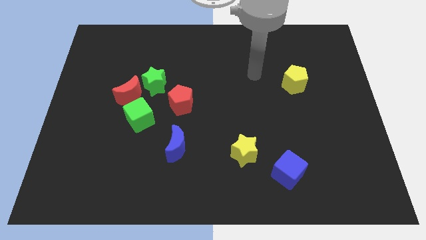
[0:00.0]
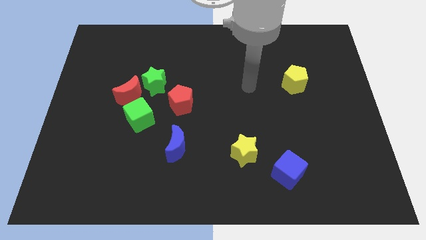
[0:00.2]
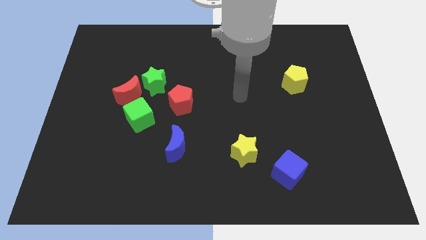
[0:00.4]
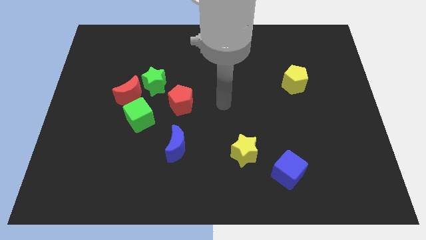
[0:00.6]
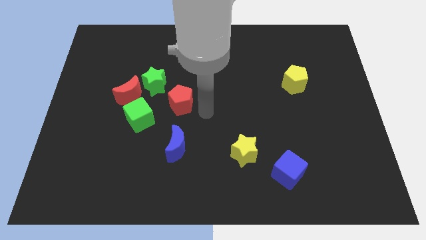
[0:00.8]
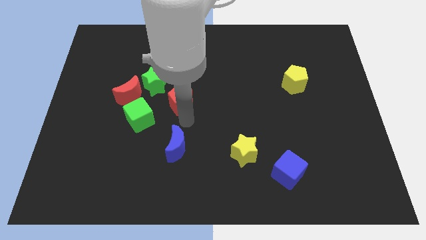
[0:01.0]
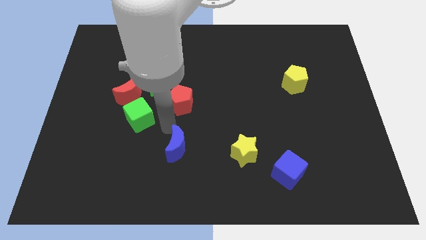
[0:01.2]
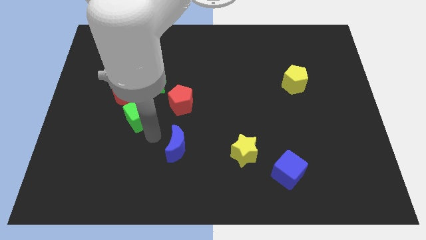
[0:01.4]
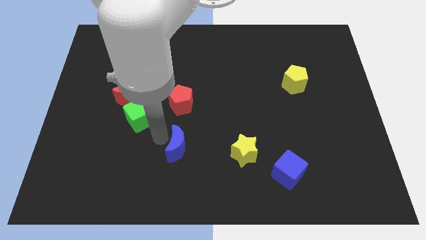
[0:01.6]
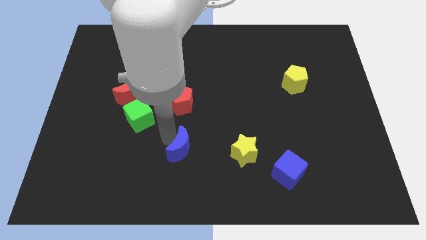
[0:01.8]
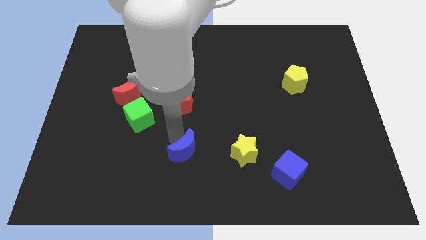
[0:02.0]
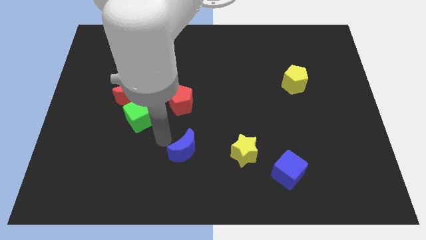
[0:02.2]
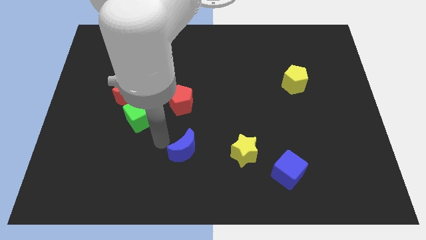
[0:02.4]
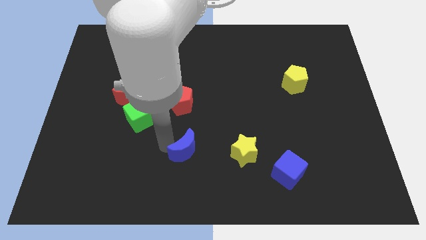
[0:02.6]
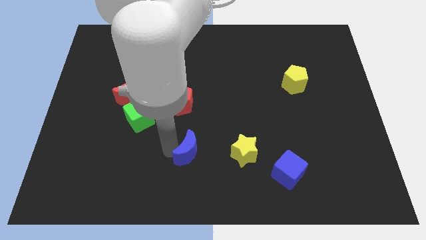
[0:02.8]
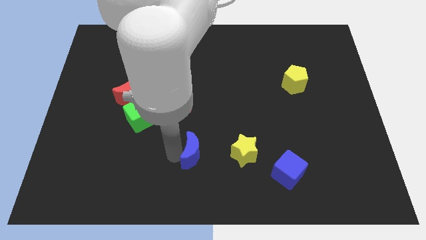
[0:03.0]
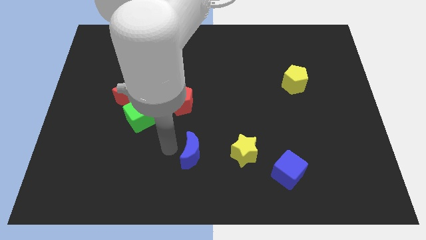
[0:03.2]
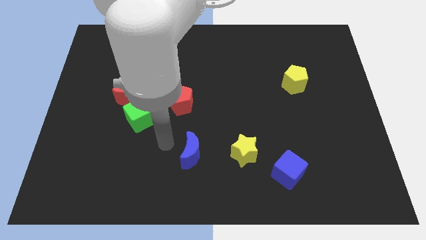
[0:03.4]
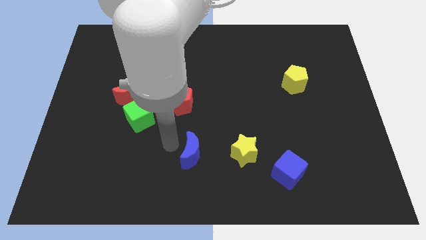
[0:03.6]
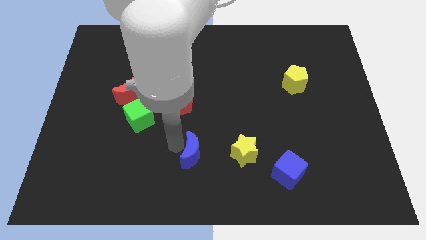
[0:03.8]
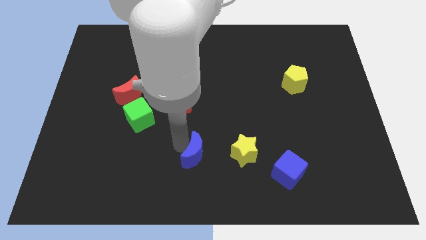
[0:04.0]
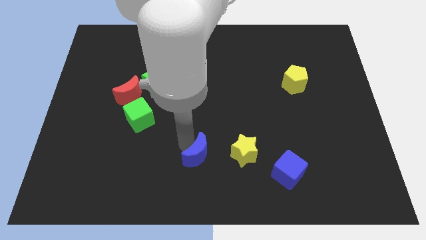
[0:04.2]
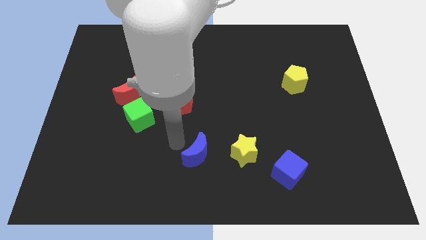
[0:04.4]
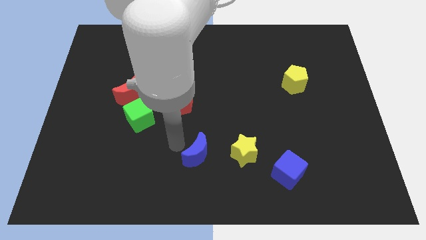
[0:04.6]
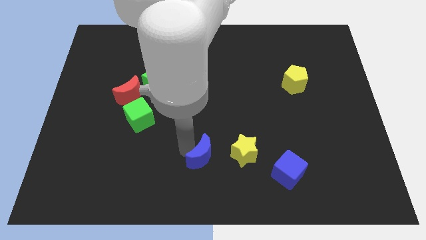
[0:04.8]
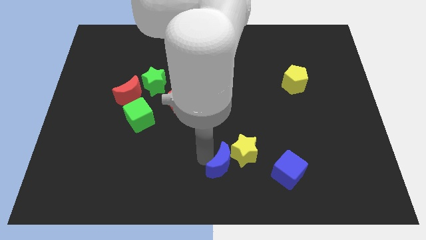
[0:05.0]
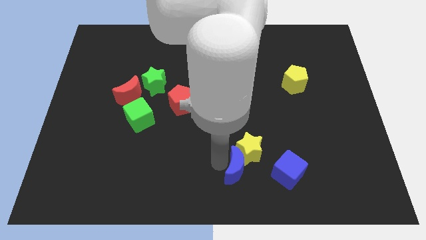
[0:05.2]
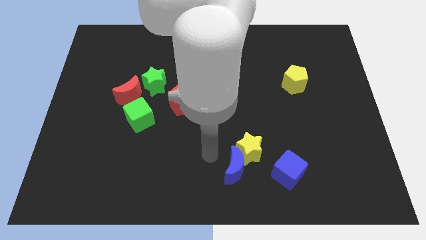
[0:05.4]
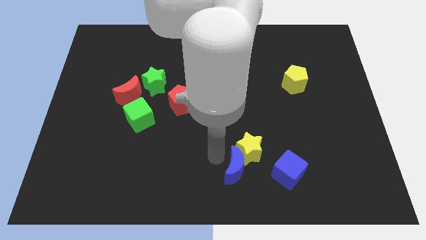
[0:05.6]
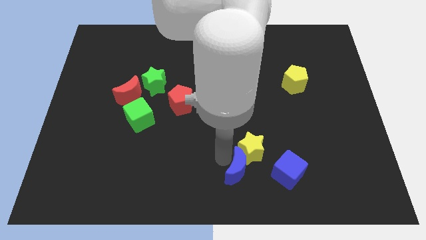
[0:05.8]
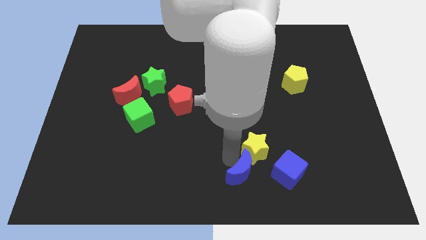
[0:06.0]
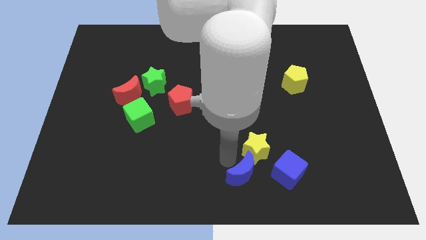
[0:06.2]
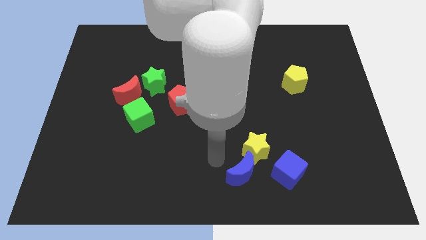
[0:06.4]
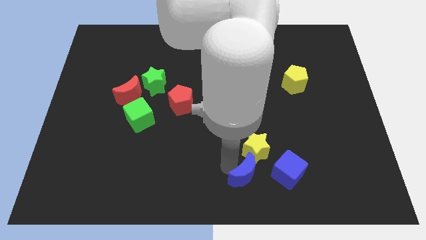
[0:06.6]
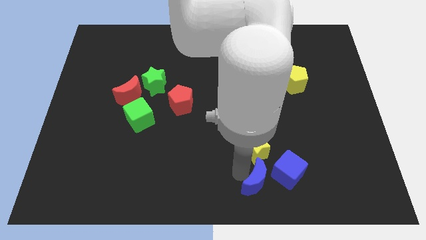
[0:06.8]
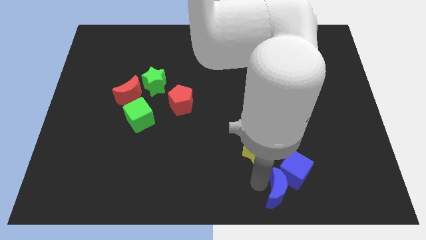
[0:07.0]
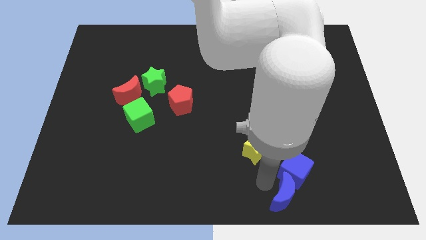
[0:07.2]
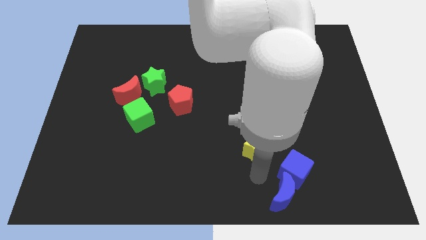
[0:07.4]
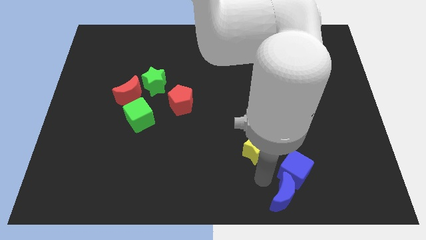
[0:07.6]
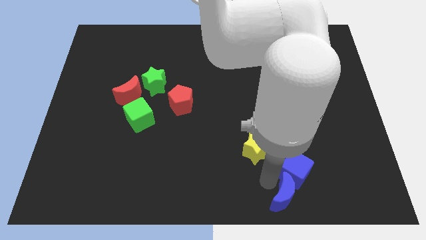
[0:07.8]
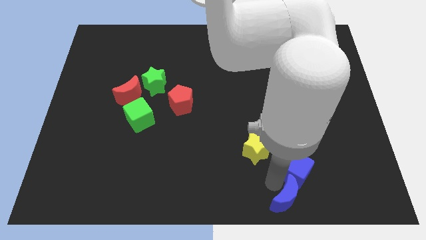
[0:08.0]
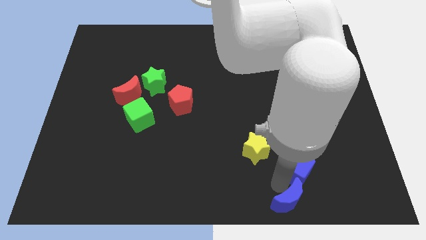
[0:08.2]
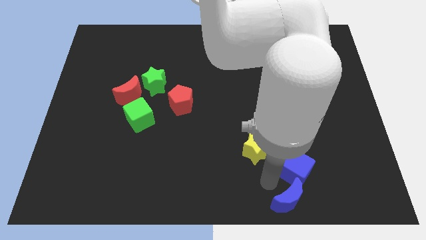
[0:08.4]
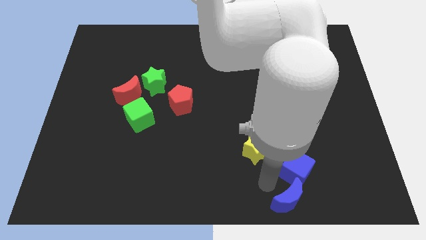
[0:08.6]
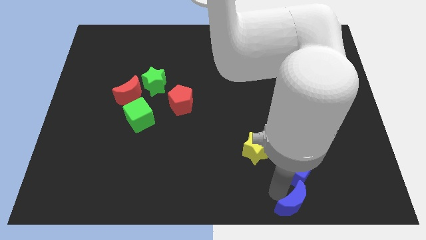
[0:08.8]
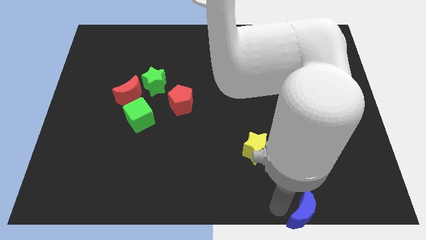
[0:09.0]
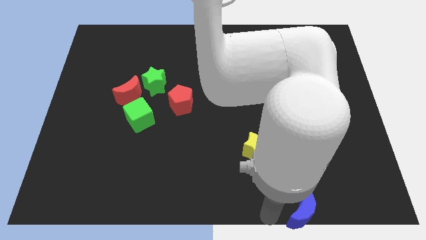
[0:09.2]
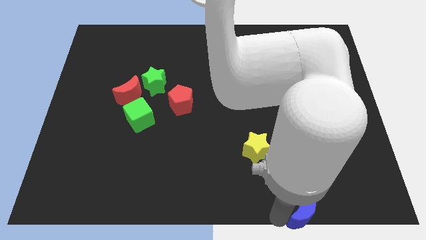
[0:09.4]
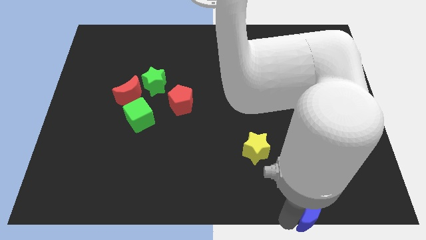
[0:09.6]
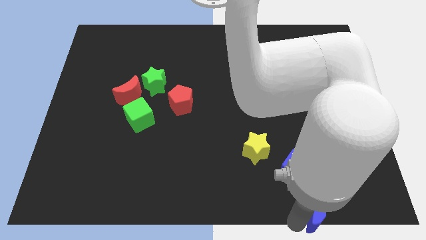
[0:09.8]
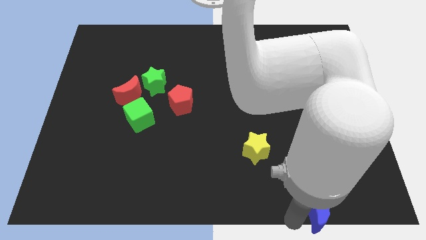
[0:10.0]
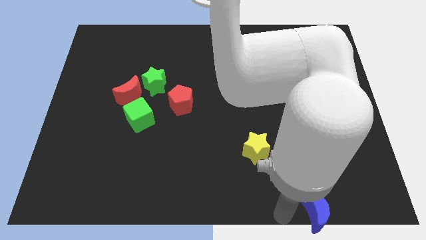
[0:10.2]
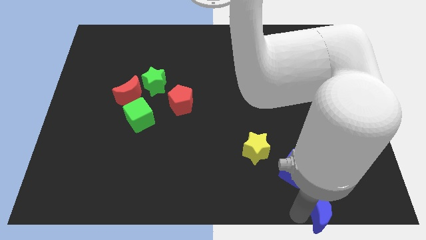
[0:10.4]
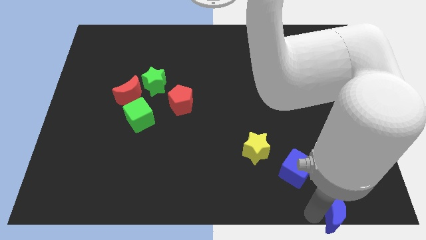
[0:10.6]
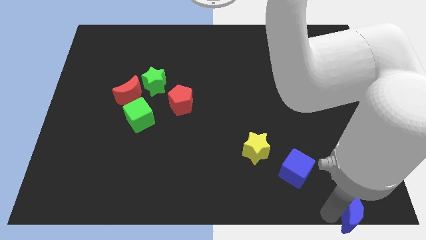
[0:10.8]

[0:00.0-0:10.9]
move the blue moon to the bottom right

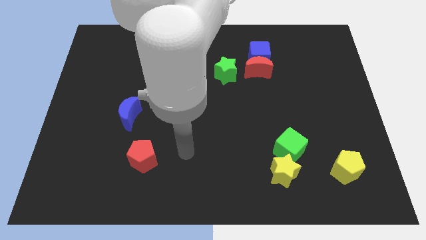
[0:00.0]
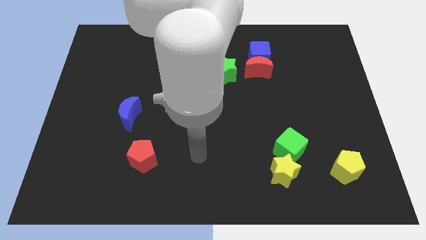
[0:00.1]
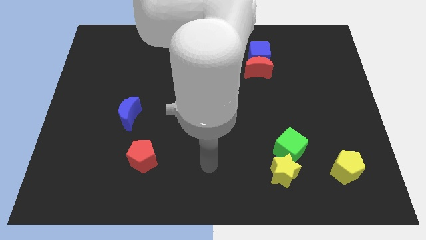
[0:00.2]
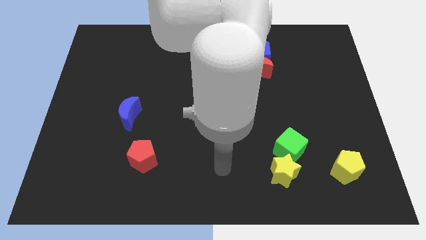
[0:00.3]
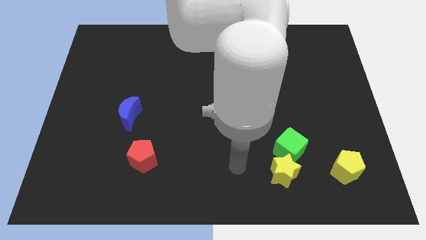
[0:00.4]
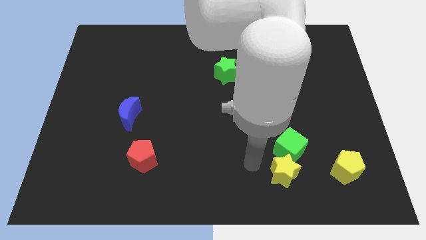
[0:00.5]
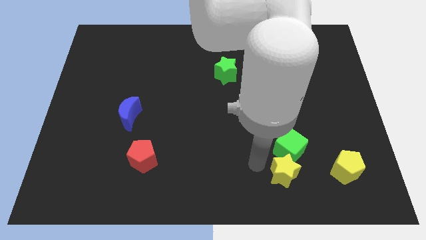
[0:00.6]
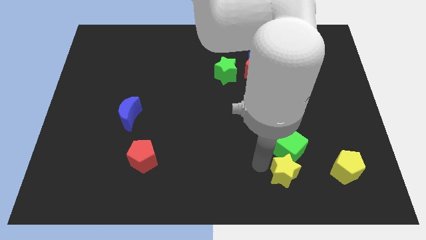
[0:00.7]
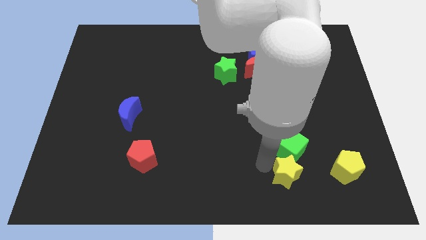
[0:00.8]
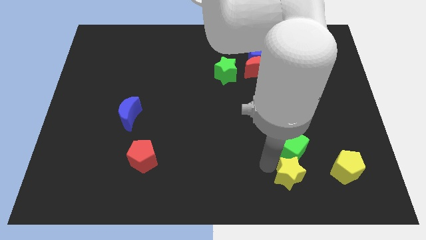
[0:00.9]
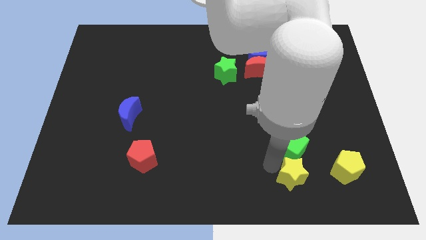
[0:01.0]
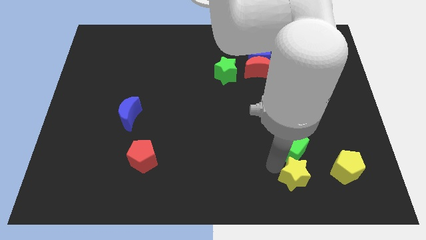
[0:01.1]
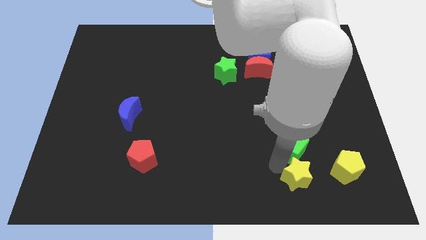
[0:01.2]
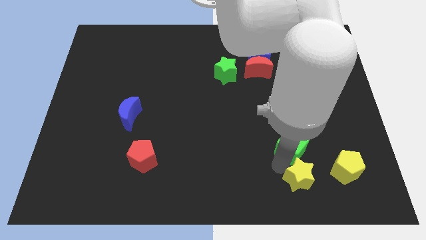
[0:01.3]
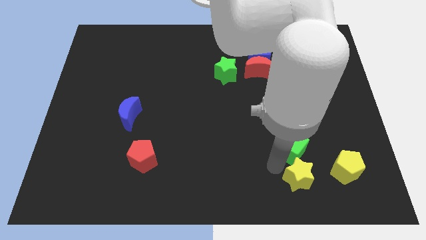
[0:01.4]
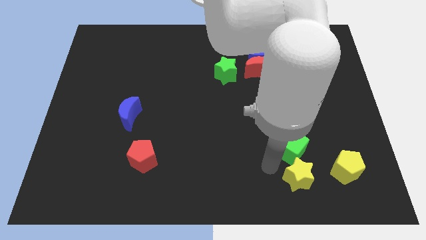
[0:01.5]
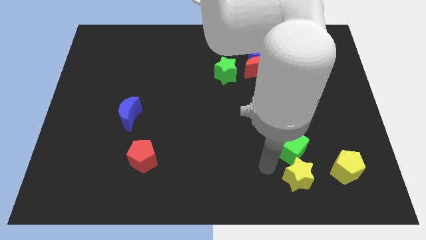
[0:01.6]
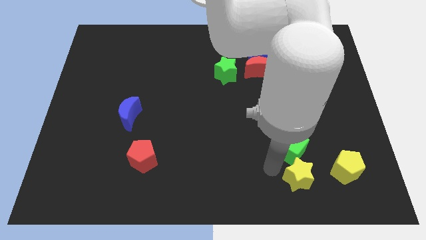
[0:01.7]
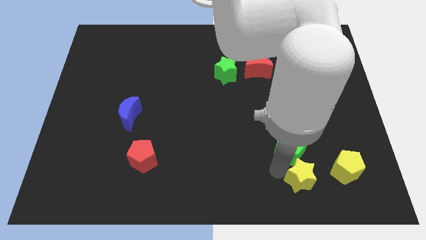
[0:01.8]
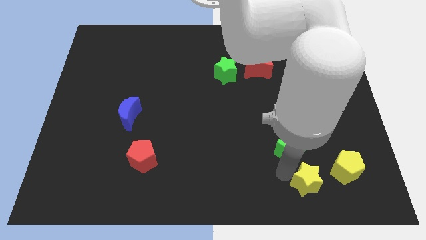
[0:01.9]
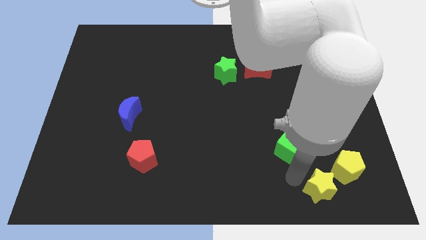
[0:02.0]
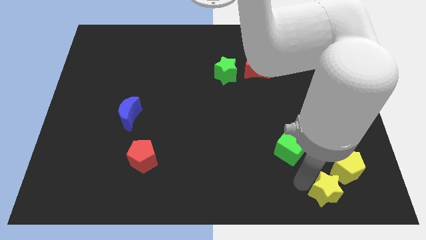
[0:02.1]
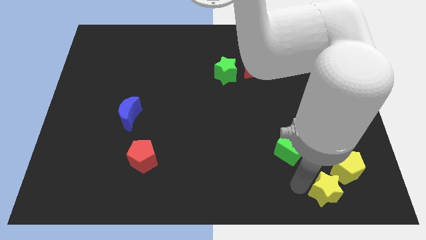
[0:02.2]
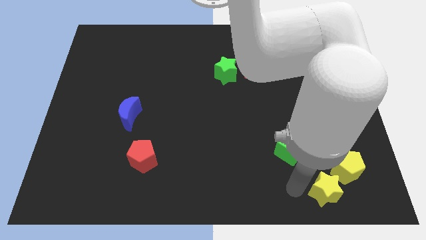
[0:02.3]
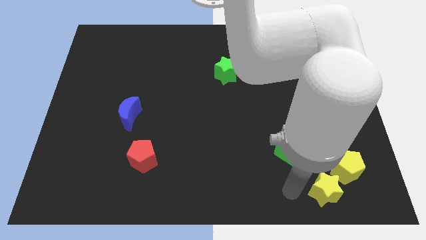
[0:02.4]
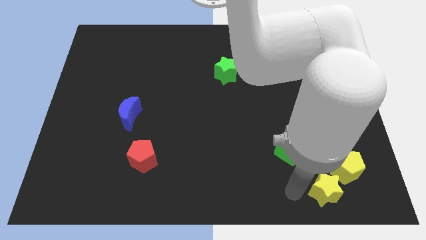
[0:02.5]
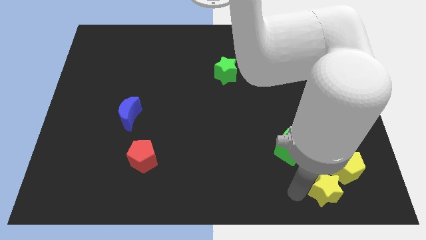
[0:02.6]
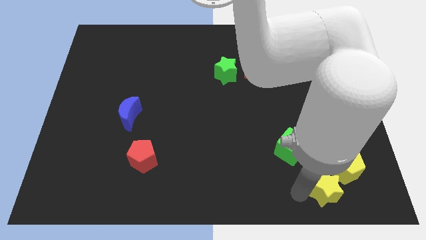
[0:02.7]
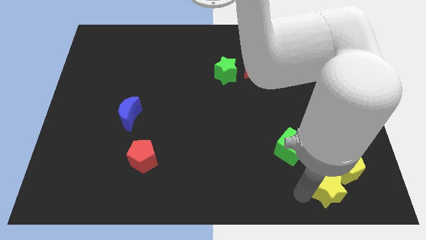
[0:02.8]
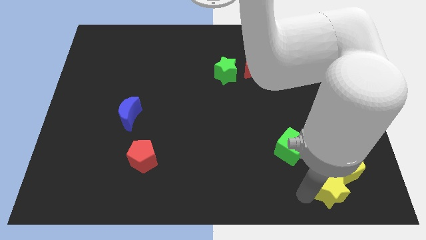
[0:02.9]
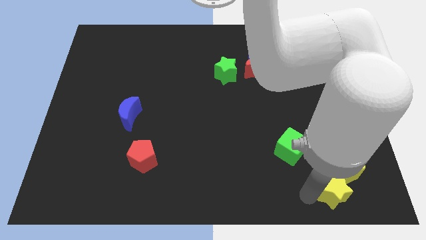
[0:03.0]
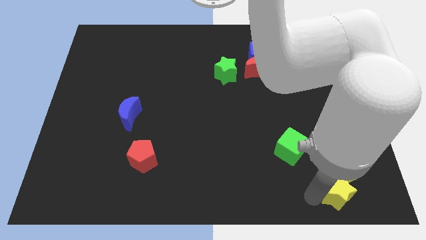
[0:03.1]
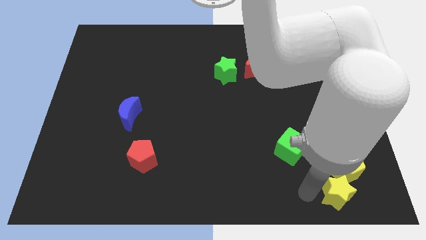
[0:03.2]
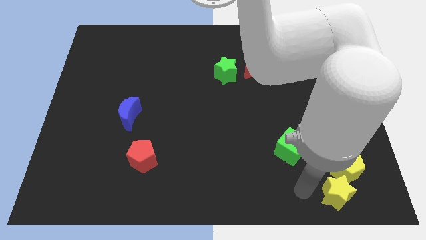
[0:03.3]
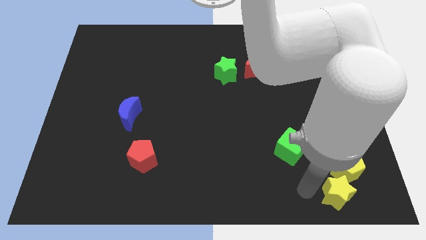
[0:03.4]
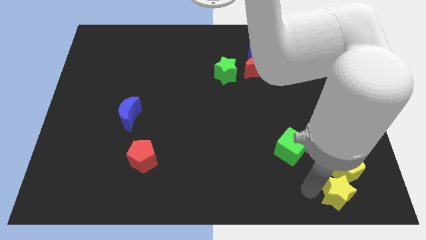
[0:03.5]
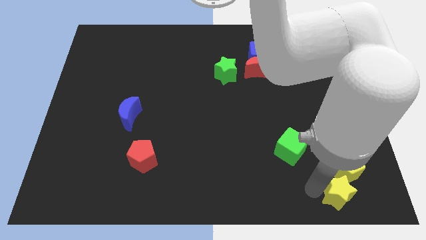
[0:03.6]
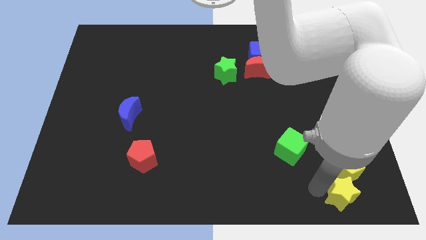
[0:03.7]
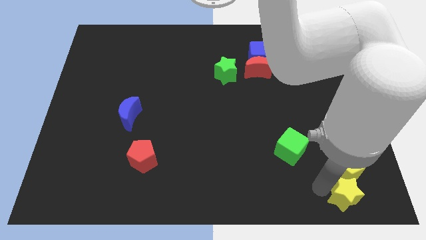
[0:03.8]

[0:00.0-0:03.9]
move the yellow star to the bottom right corner
